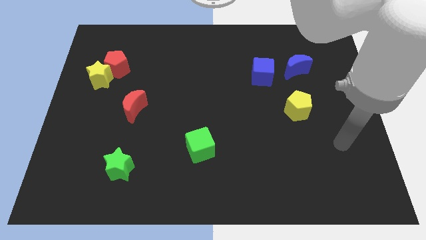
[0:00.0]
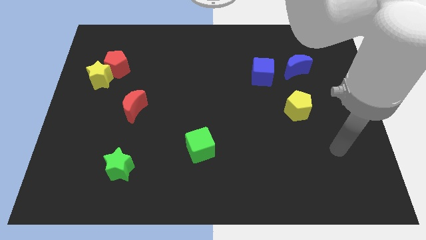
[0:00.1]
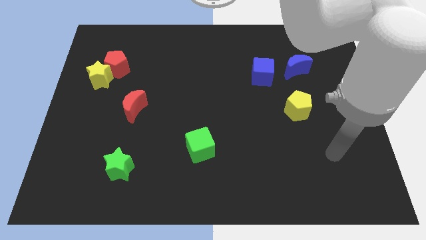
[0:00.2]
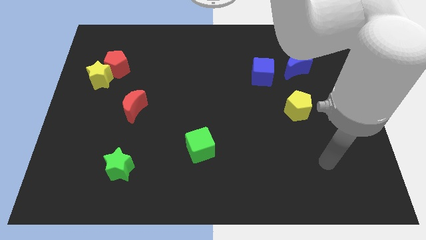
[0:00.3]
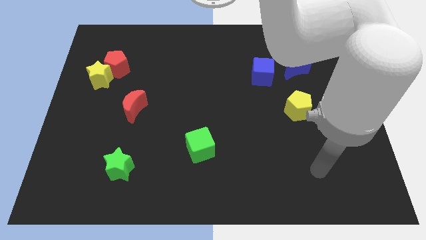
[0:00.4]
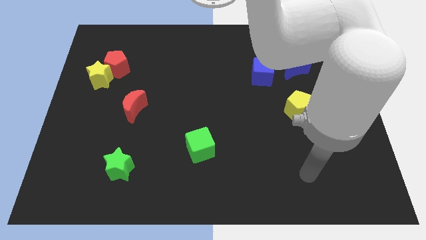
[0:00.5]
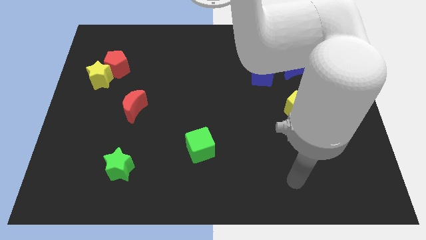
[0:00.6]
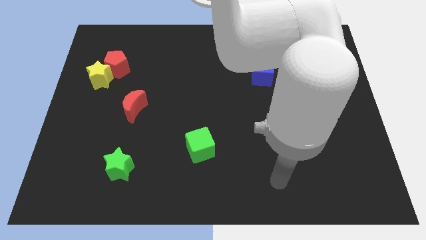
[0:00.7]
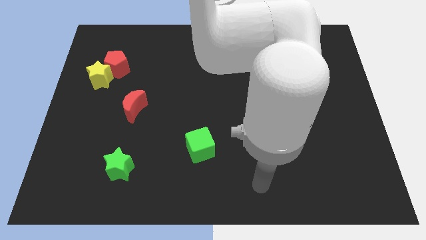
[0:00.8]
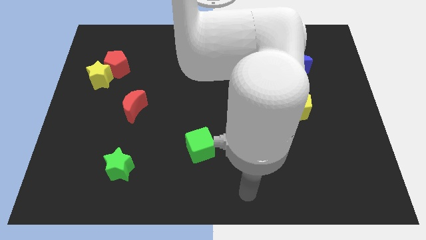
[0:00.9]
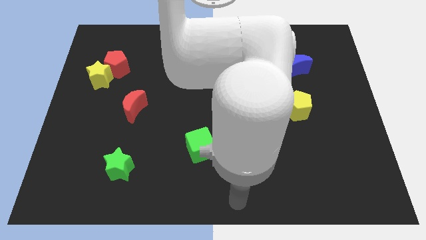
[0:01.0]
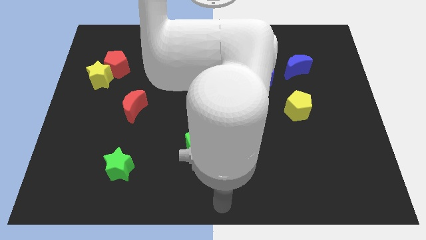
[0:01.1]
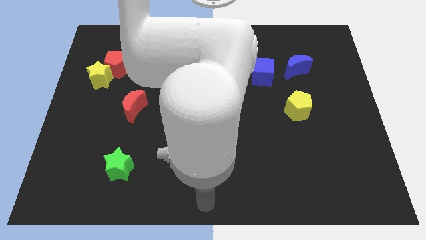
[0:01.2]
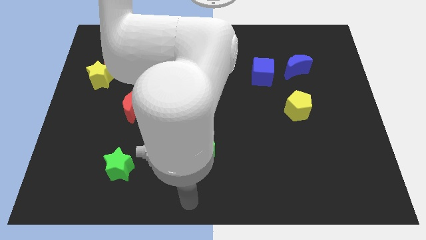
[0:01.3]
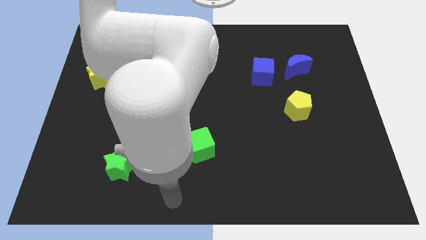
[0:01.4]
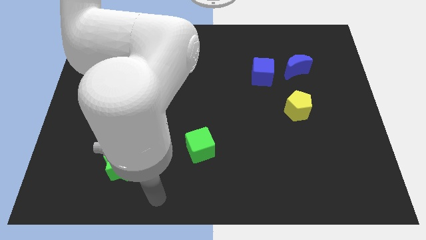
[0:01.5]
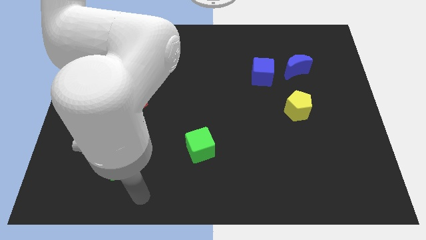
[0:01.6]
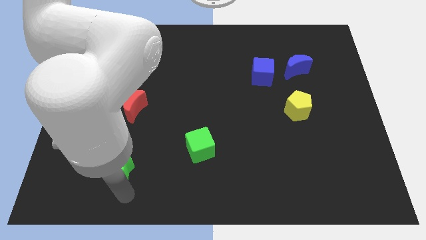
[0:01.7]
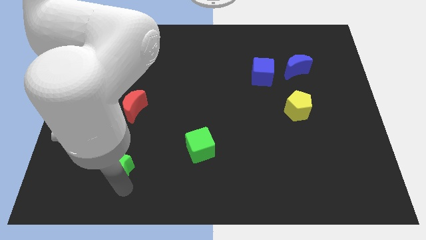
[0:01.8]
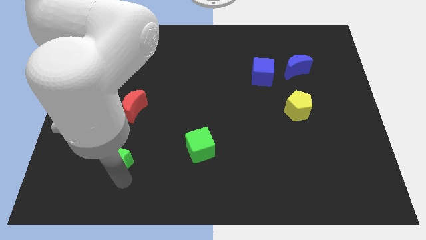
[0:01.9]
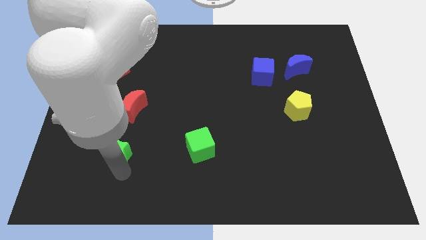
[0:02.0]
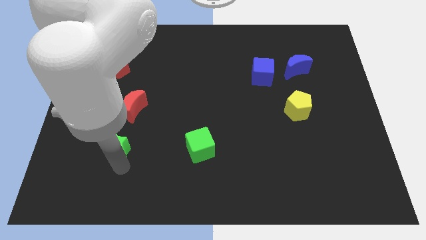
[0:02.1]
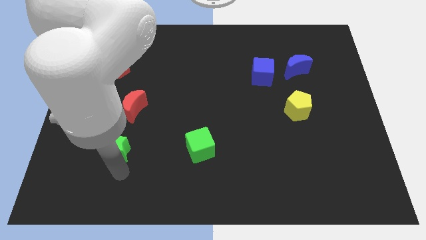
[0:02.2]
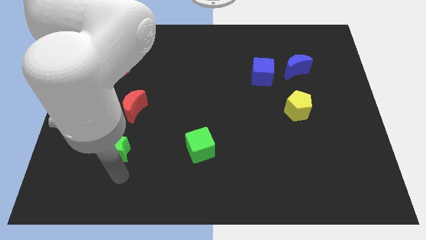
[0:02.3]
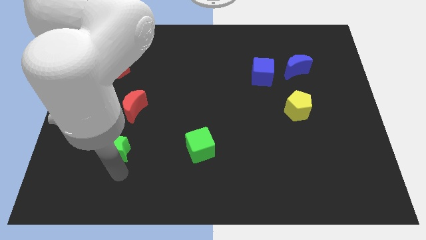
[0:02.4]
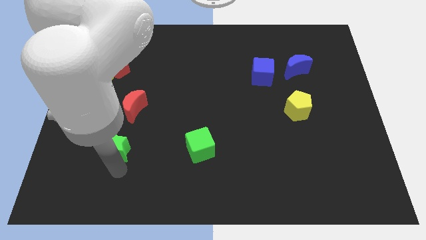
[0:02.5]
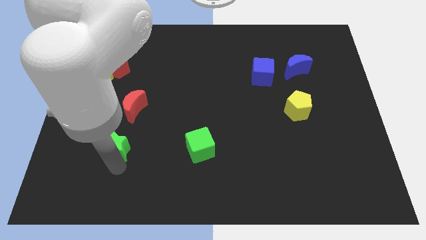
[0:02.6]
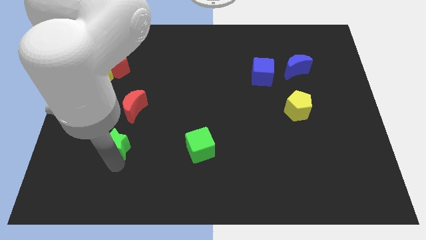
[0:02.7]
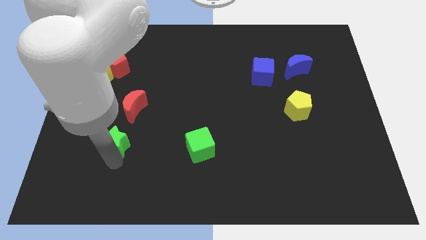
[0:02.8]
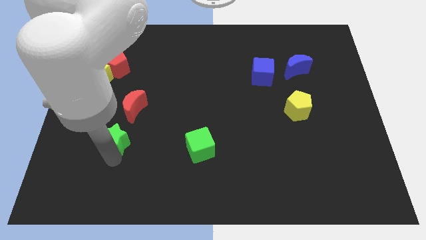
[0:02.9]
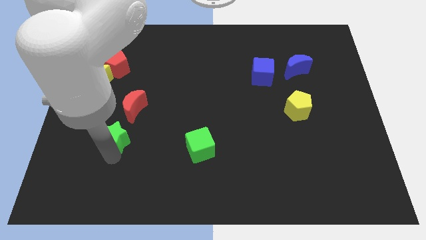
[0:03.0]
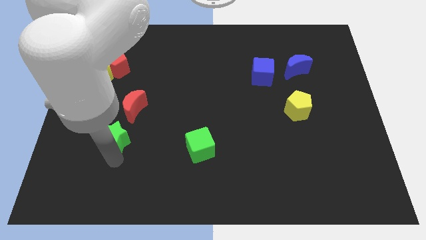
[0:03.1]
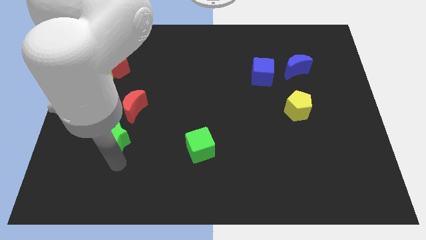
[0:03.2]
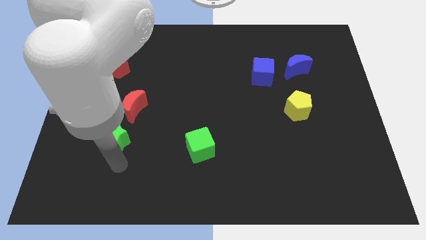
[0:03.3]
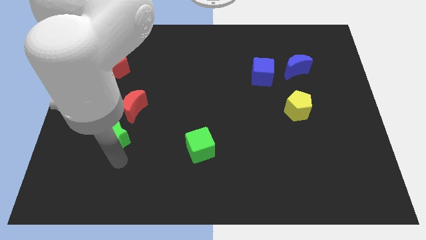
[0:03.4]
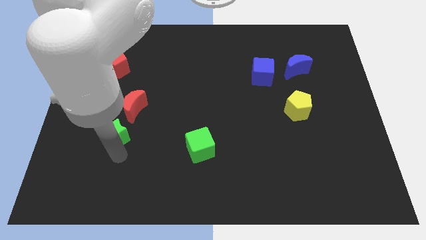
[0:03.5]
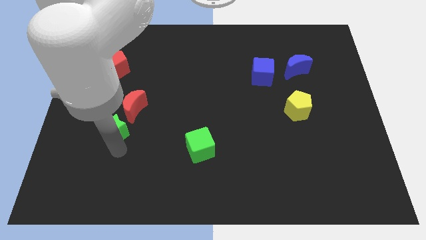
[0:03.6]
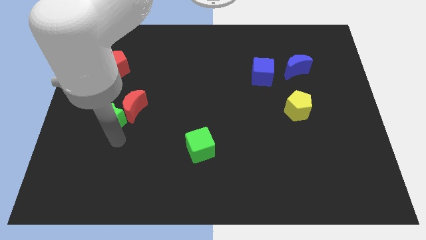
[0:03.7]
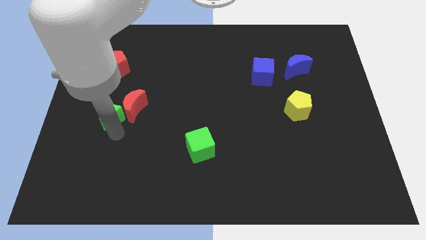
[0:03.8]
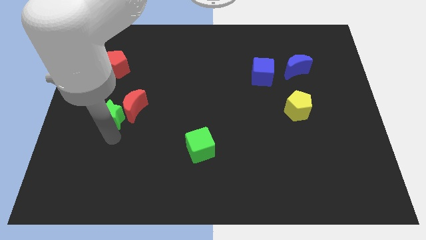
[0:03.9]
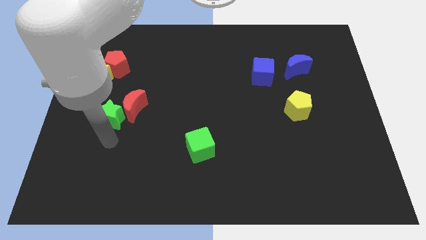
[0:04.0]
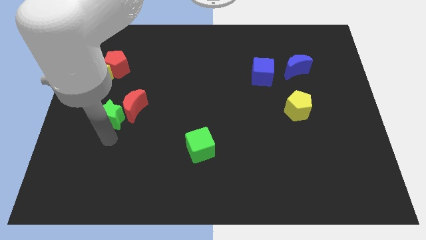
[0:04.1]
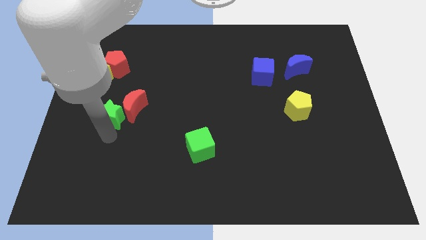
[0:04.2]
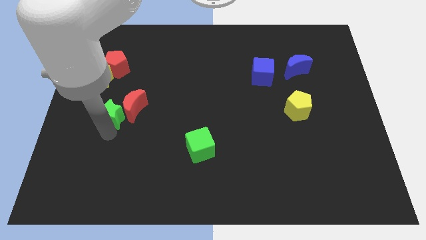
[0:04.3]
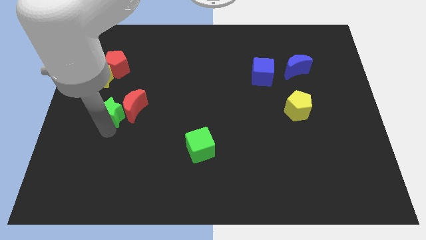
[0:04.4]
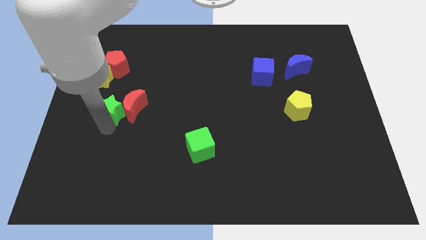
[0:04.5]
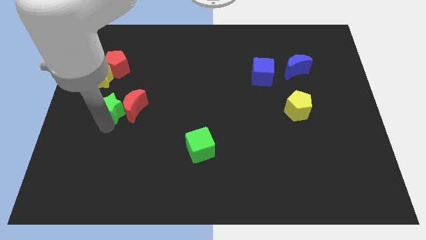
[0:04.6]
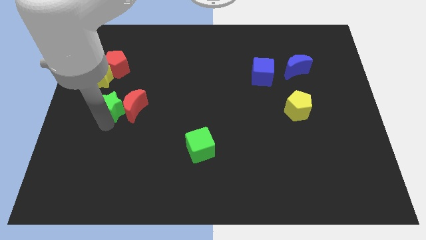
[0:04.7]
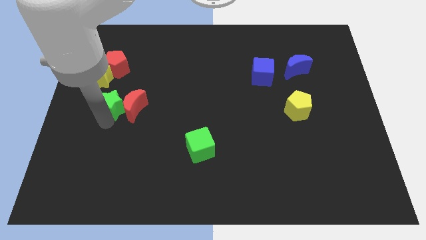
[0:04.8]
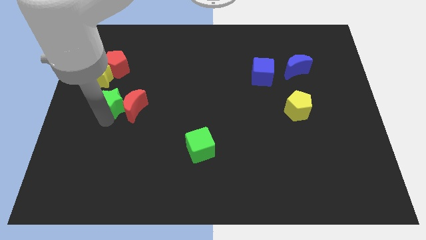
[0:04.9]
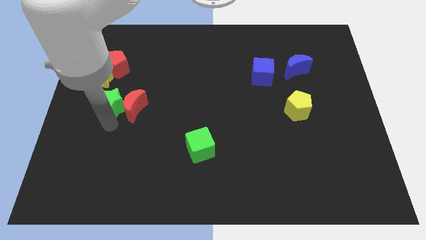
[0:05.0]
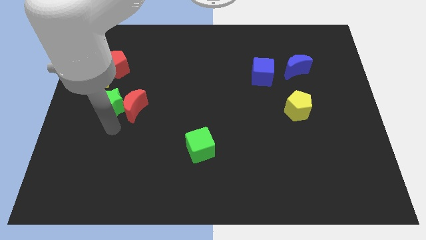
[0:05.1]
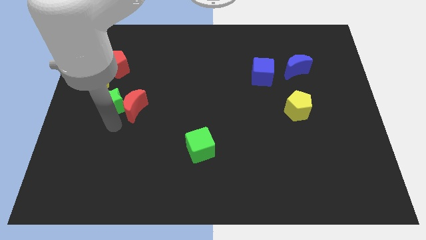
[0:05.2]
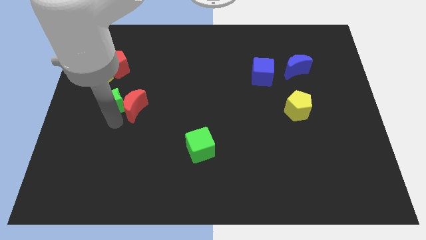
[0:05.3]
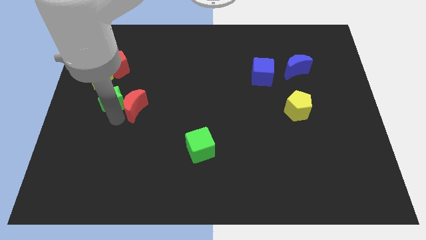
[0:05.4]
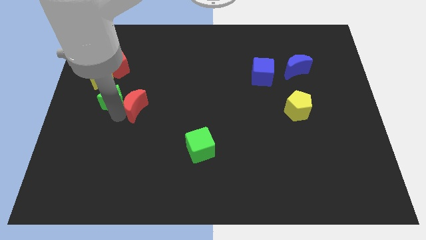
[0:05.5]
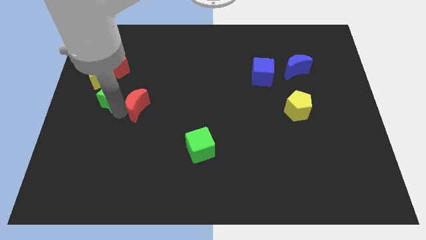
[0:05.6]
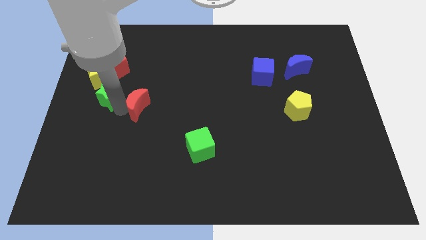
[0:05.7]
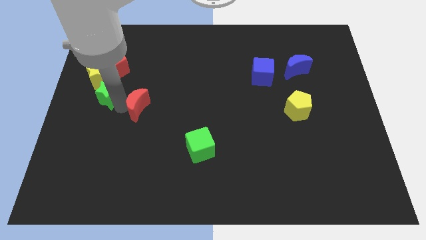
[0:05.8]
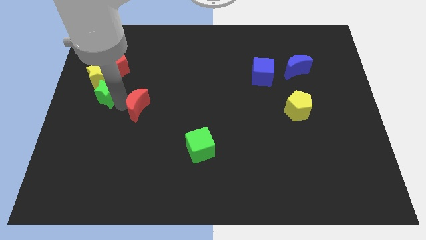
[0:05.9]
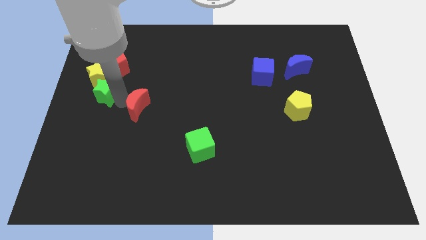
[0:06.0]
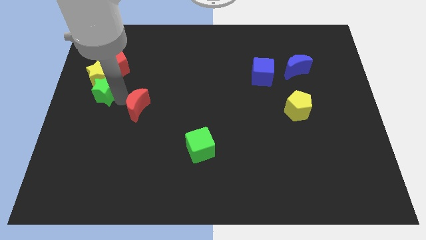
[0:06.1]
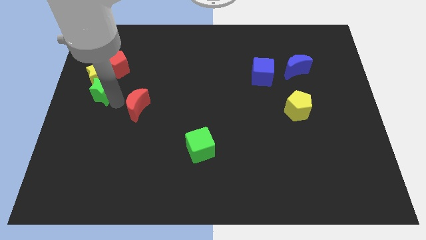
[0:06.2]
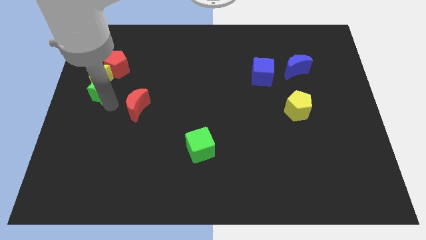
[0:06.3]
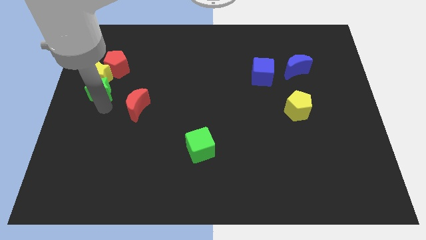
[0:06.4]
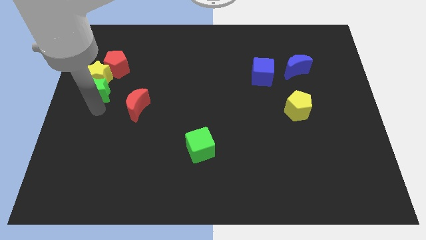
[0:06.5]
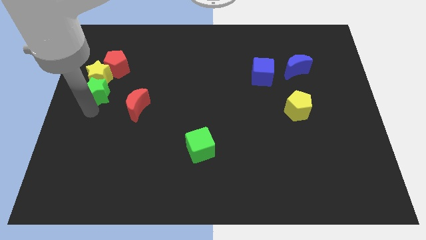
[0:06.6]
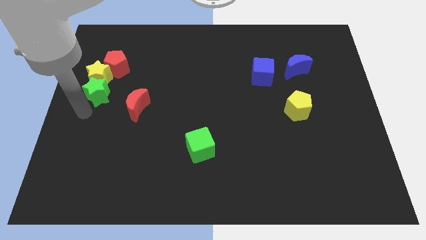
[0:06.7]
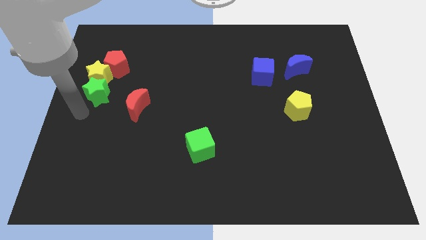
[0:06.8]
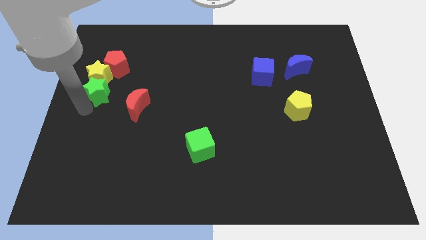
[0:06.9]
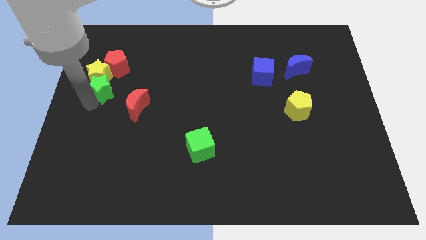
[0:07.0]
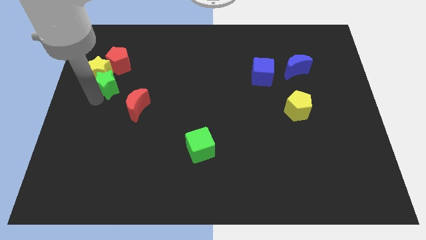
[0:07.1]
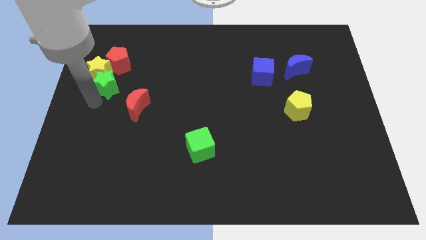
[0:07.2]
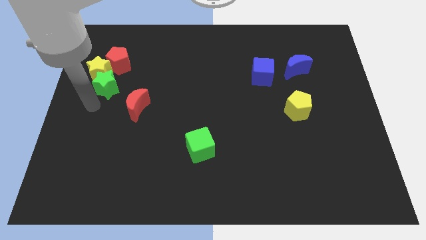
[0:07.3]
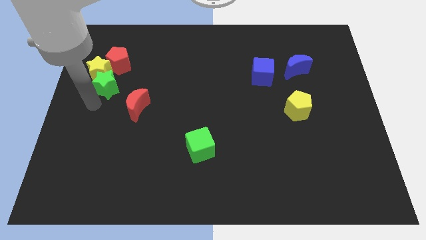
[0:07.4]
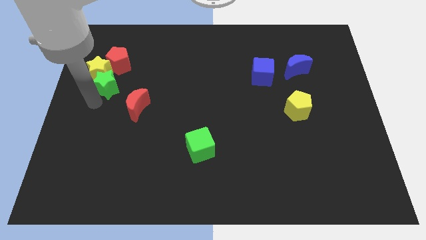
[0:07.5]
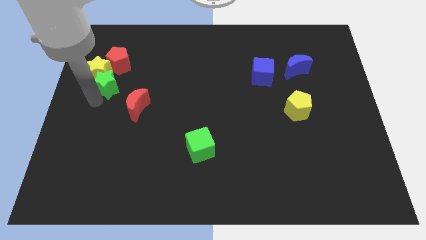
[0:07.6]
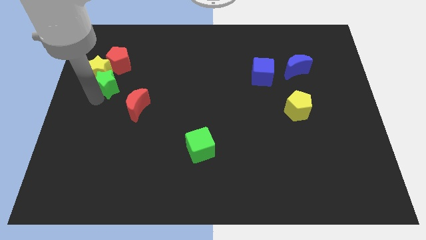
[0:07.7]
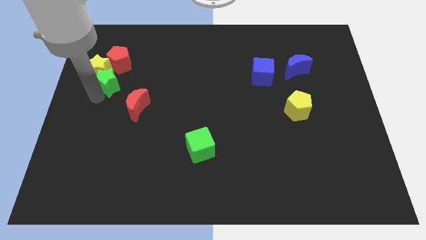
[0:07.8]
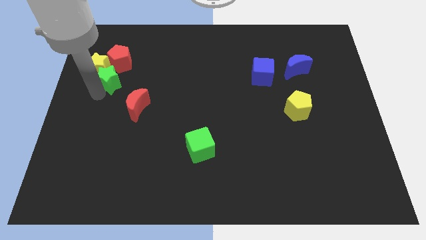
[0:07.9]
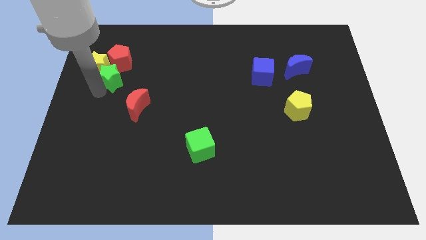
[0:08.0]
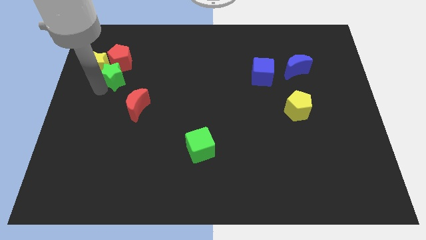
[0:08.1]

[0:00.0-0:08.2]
push the green star towards the red pentagon

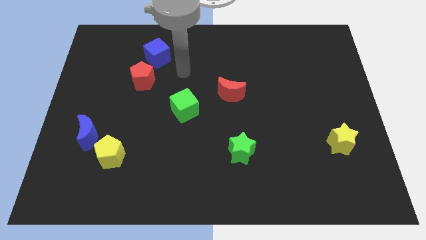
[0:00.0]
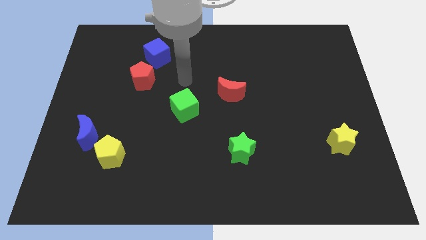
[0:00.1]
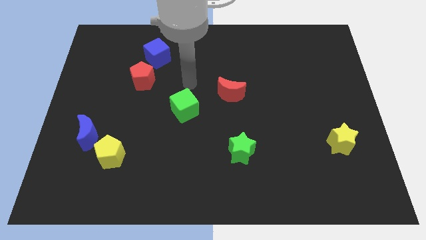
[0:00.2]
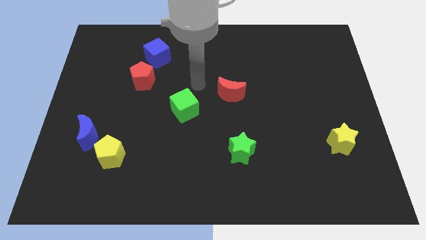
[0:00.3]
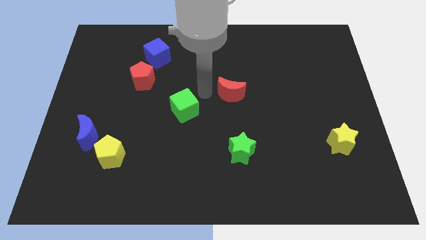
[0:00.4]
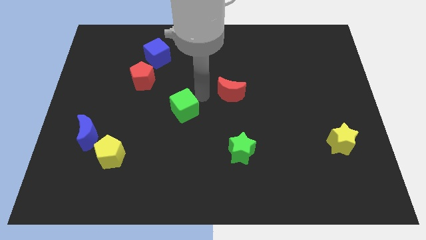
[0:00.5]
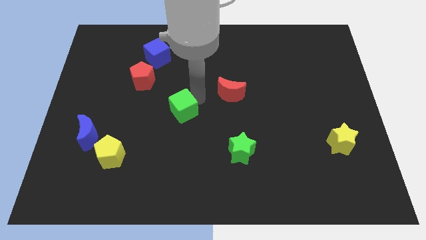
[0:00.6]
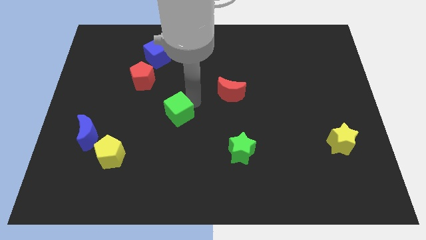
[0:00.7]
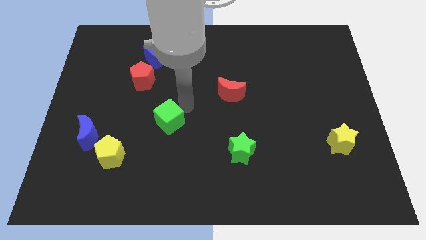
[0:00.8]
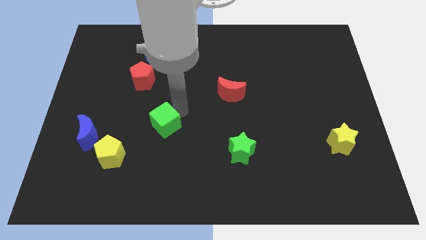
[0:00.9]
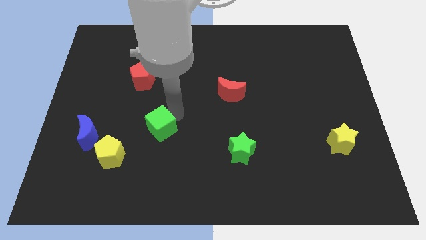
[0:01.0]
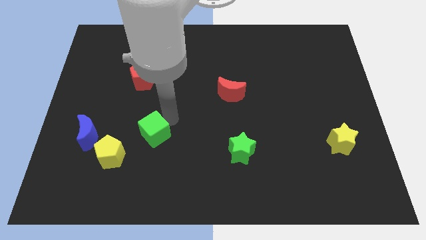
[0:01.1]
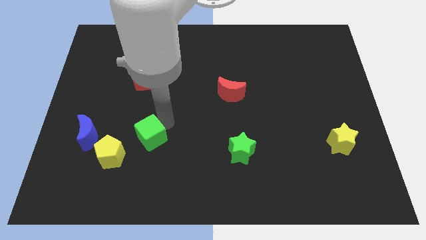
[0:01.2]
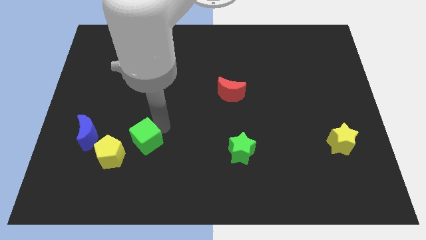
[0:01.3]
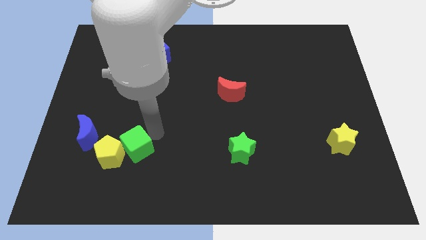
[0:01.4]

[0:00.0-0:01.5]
push the green cube close to the yellow pentagon
